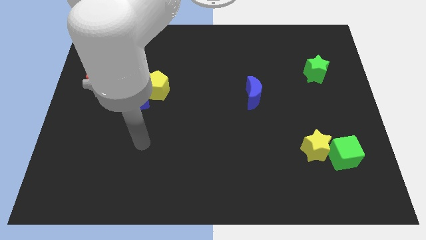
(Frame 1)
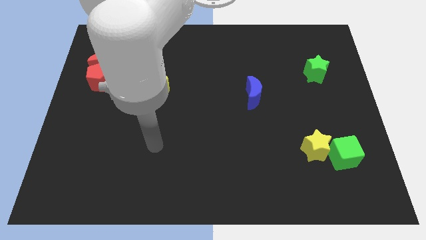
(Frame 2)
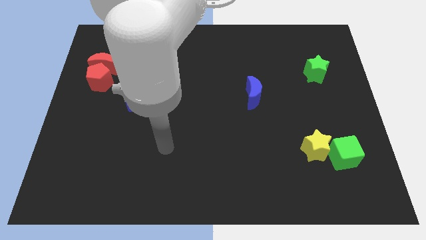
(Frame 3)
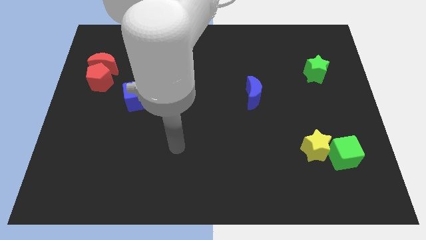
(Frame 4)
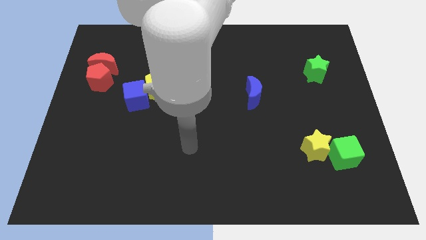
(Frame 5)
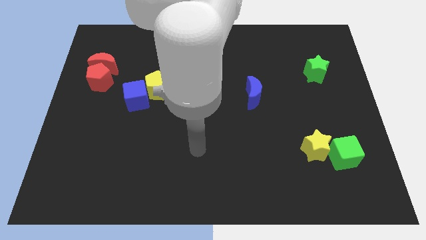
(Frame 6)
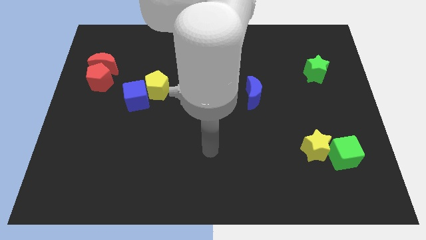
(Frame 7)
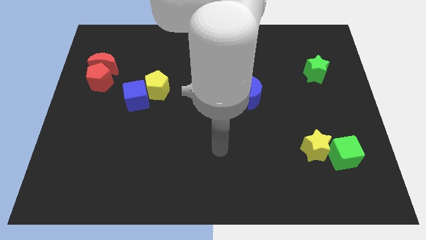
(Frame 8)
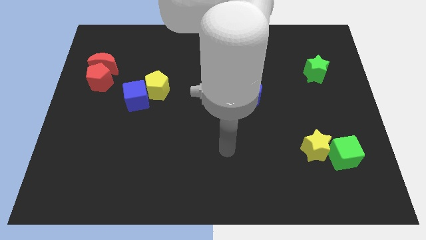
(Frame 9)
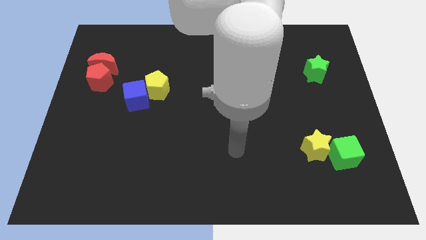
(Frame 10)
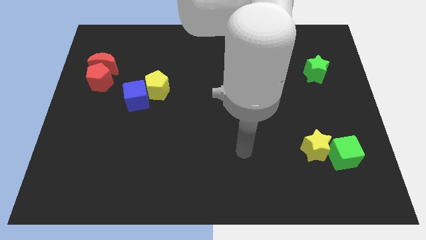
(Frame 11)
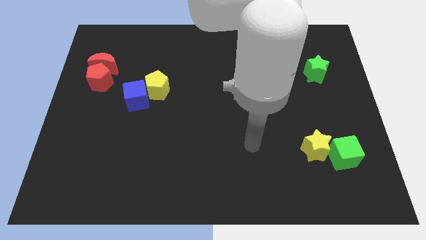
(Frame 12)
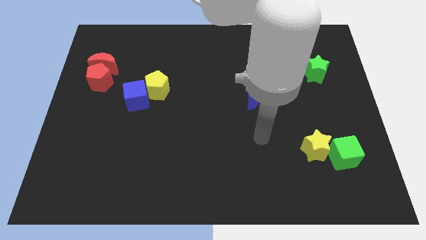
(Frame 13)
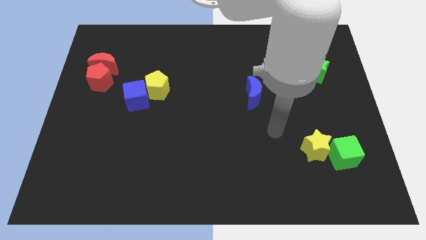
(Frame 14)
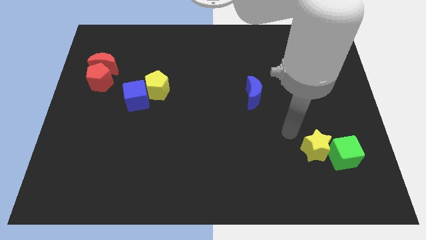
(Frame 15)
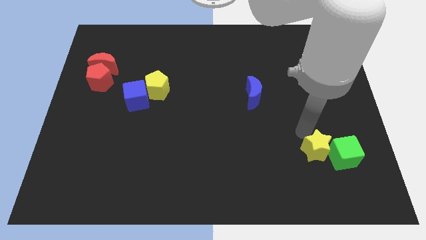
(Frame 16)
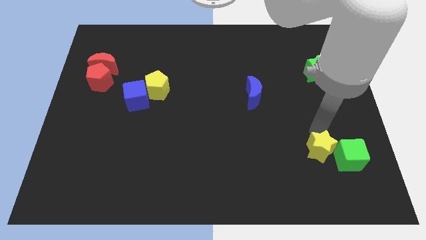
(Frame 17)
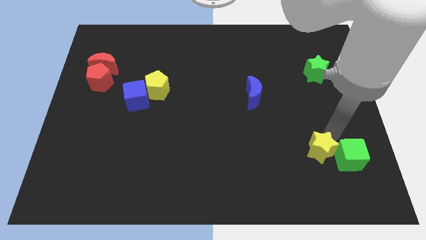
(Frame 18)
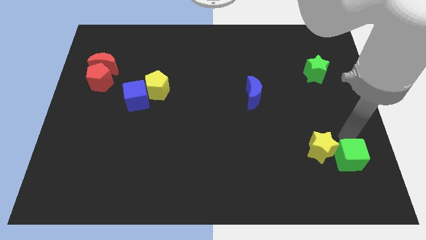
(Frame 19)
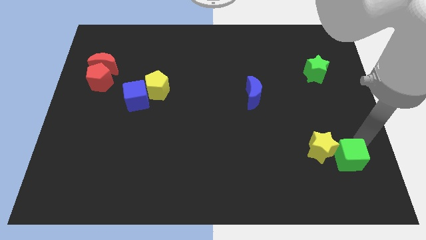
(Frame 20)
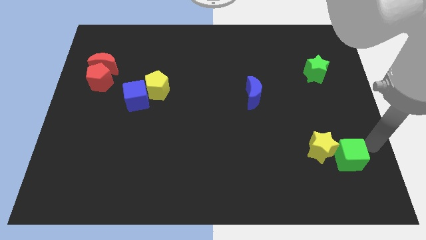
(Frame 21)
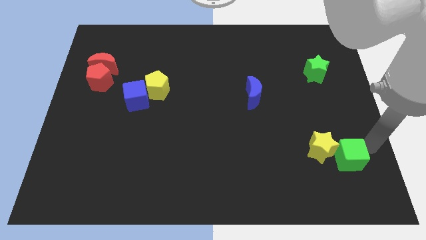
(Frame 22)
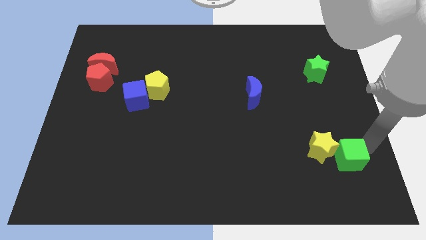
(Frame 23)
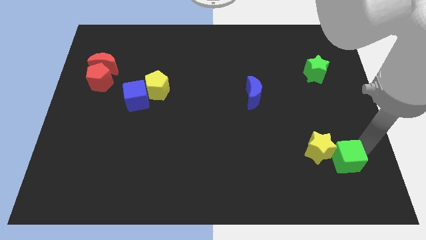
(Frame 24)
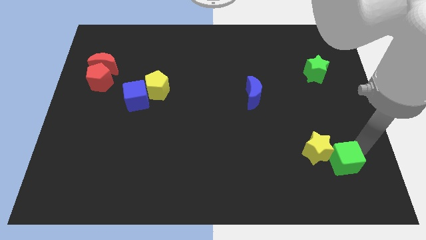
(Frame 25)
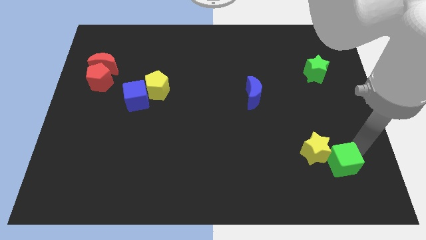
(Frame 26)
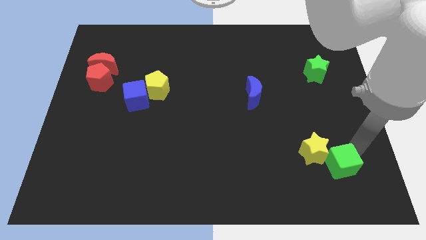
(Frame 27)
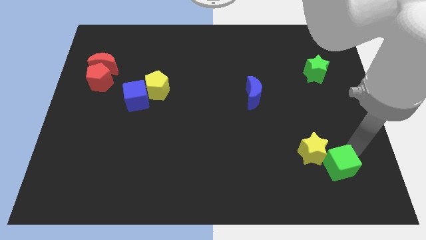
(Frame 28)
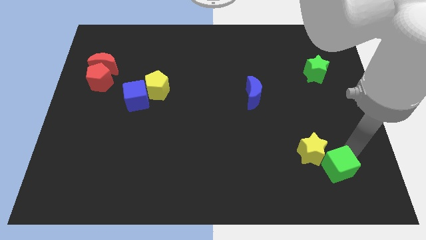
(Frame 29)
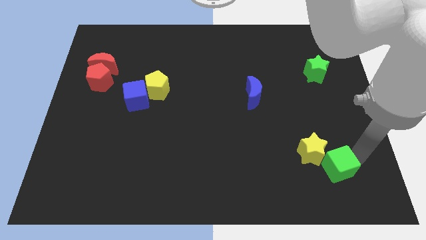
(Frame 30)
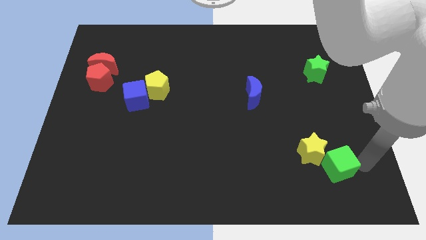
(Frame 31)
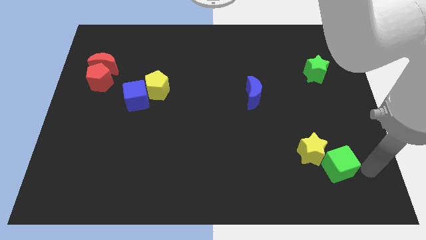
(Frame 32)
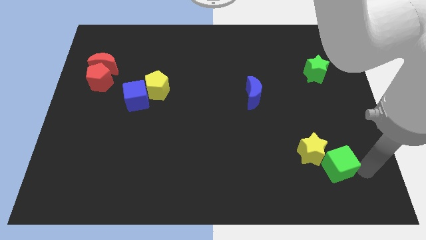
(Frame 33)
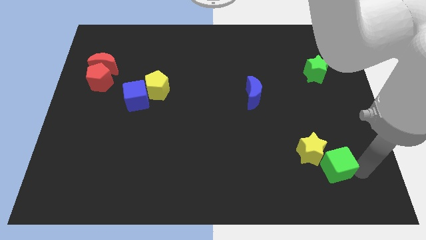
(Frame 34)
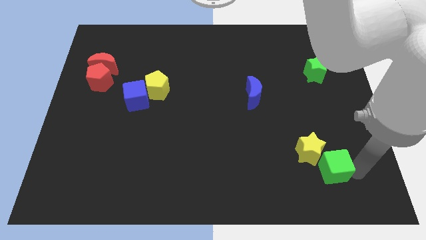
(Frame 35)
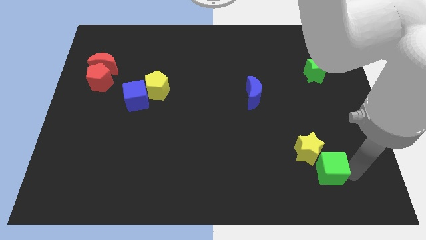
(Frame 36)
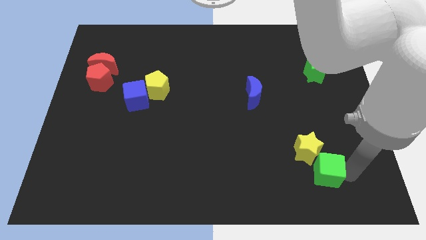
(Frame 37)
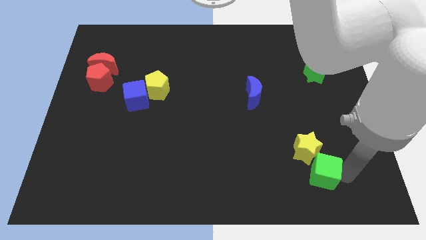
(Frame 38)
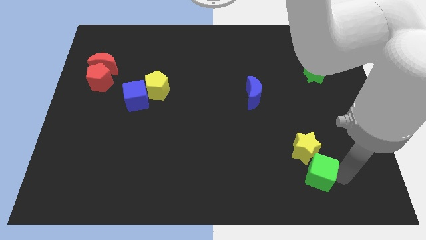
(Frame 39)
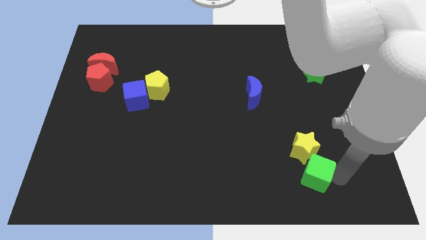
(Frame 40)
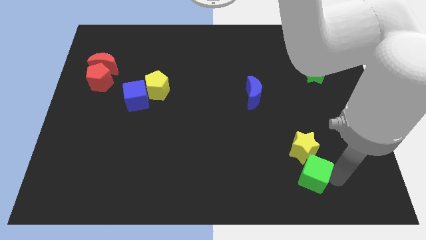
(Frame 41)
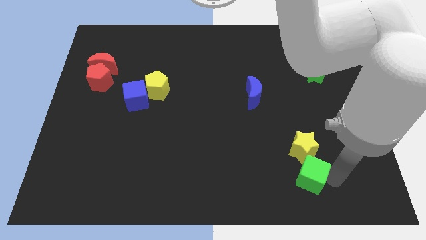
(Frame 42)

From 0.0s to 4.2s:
move the green cube left slightly

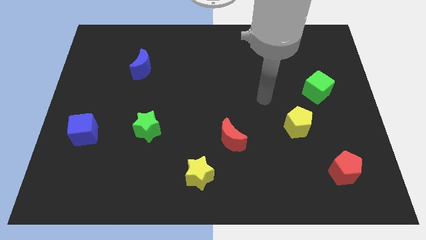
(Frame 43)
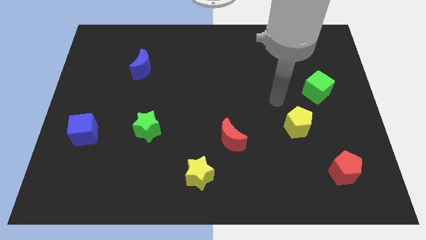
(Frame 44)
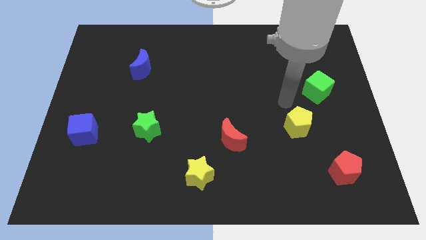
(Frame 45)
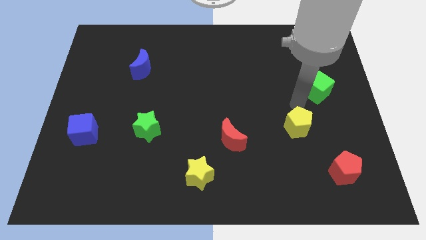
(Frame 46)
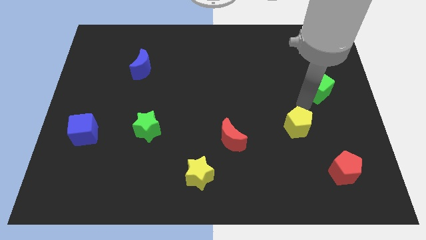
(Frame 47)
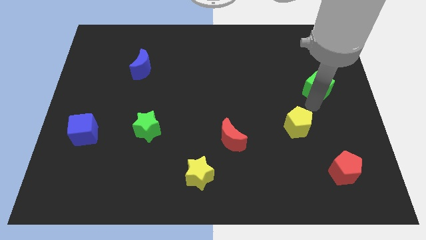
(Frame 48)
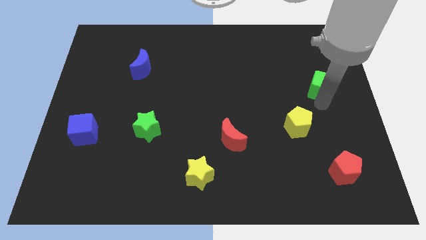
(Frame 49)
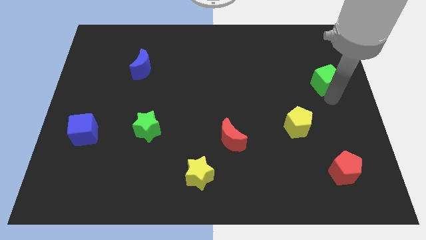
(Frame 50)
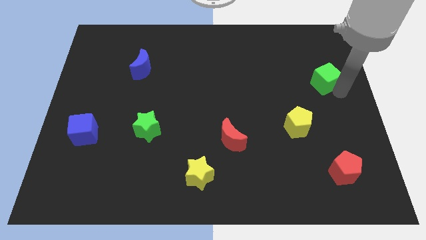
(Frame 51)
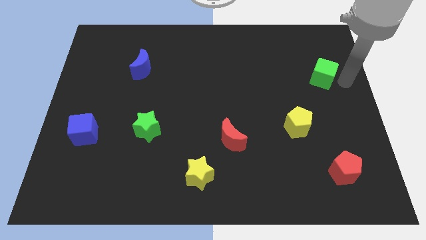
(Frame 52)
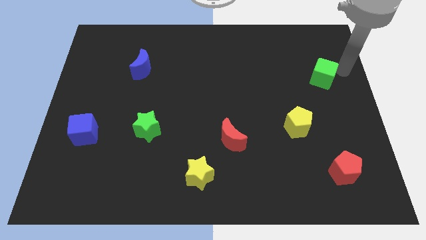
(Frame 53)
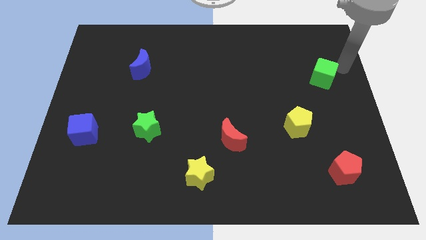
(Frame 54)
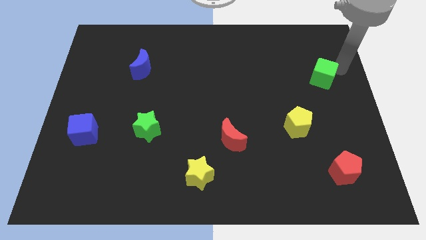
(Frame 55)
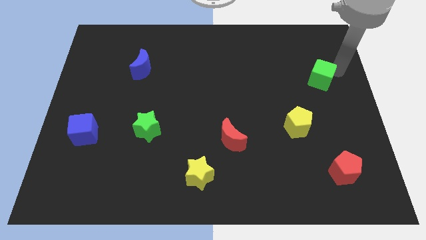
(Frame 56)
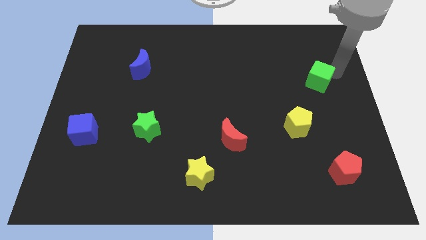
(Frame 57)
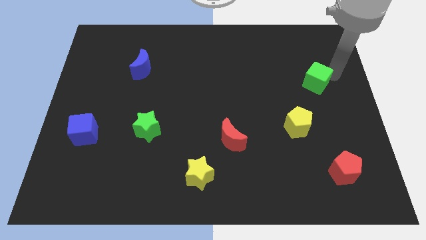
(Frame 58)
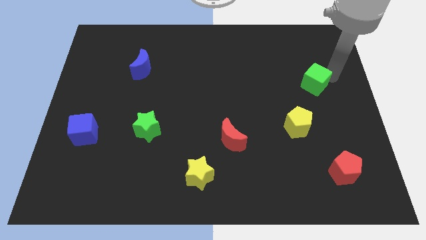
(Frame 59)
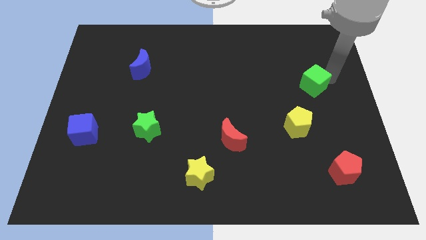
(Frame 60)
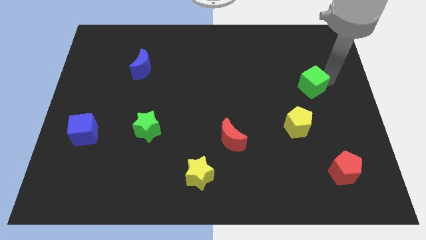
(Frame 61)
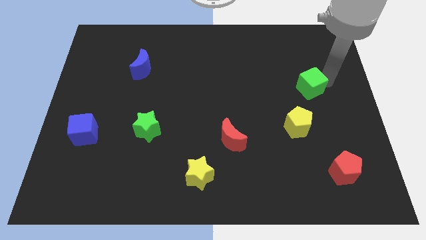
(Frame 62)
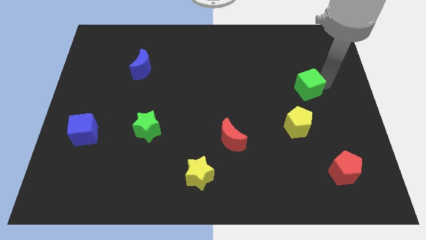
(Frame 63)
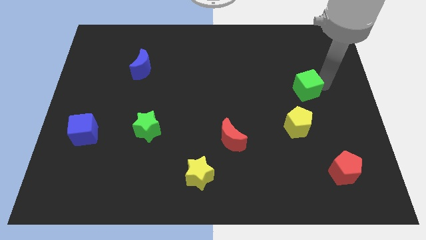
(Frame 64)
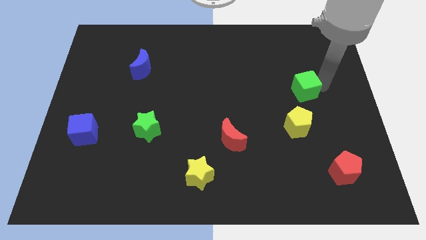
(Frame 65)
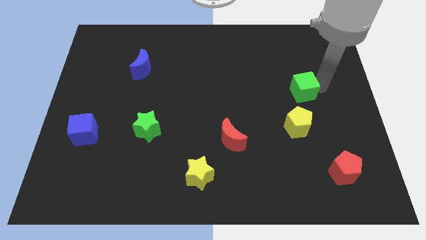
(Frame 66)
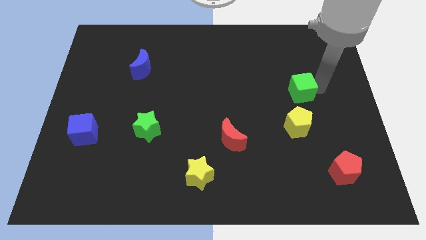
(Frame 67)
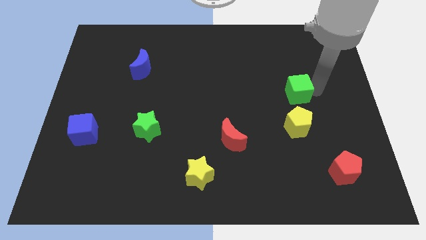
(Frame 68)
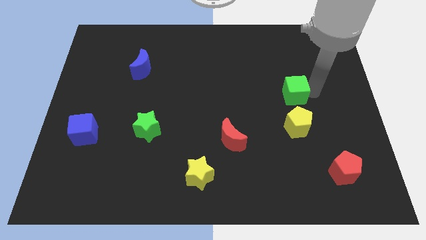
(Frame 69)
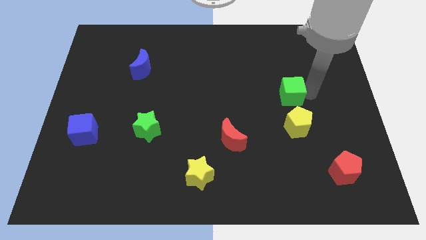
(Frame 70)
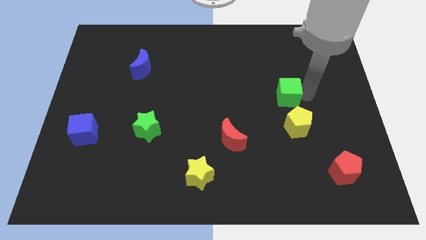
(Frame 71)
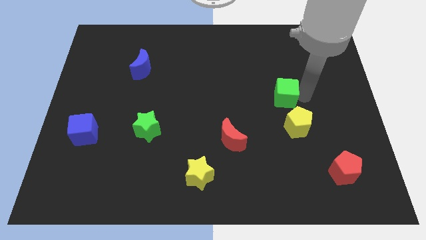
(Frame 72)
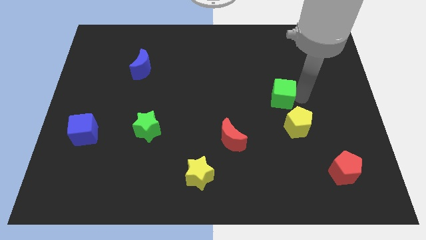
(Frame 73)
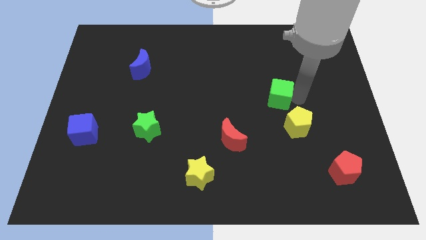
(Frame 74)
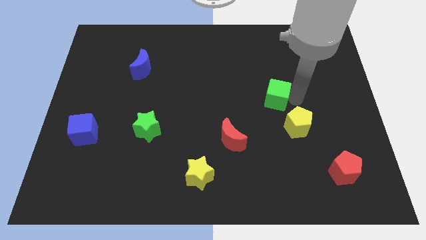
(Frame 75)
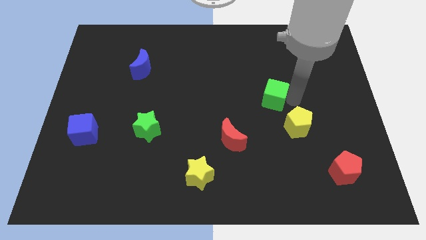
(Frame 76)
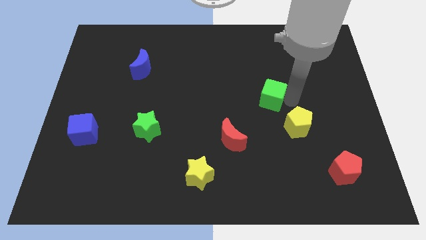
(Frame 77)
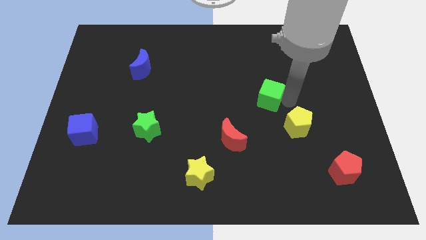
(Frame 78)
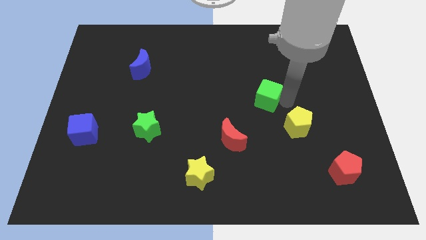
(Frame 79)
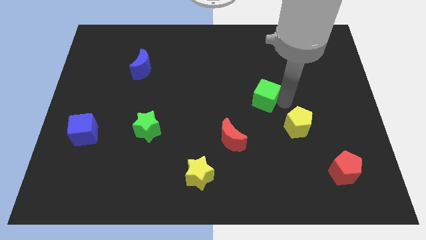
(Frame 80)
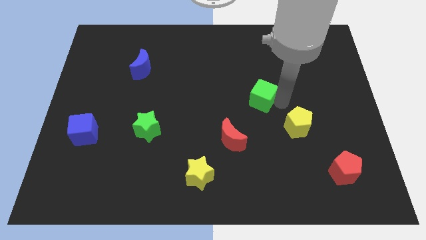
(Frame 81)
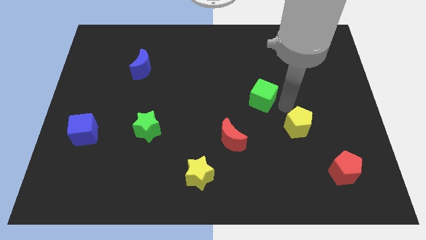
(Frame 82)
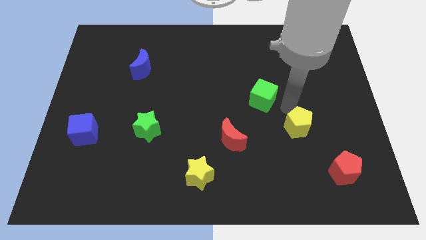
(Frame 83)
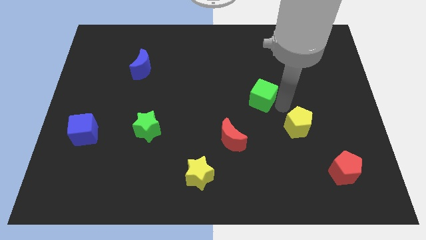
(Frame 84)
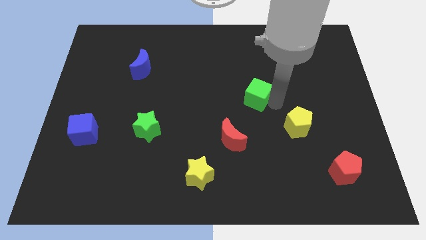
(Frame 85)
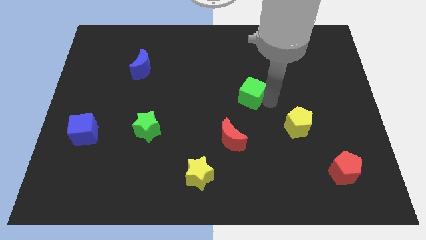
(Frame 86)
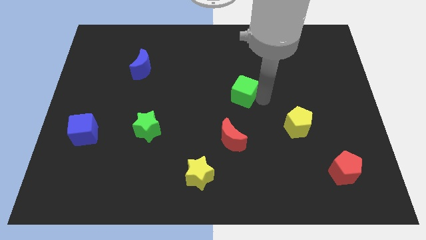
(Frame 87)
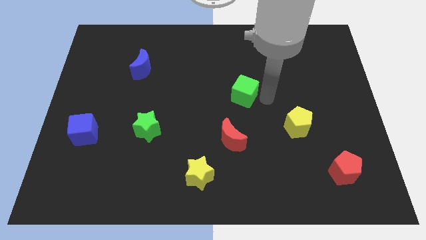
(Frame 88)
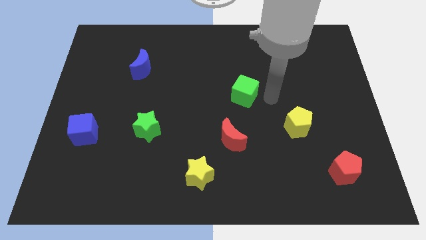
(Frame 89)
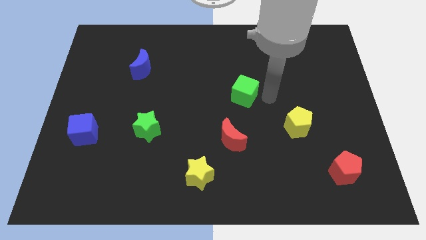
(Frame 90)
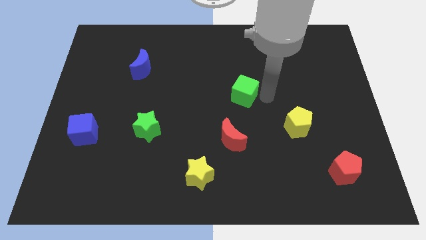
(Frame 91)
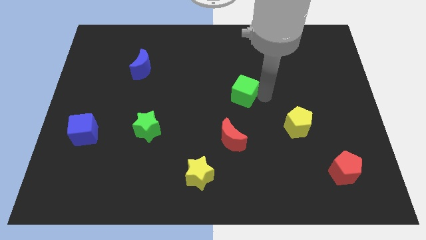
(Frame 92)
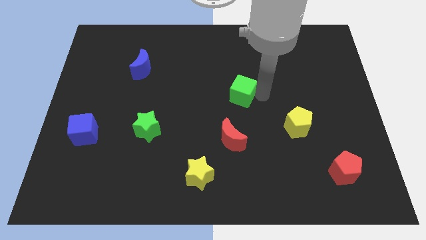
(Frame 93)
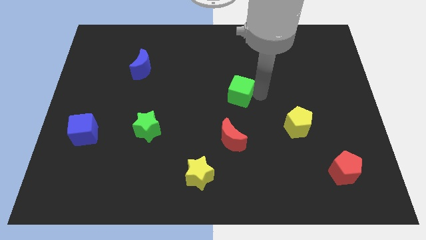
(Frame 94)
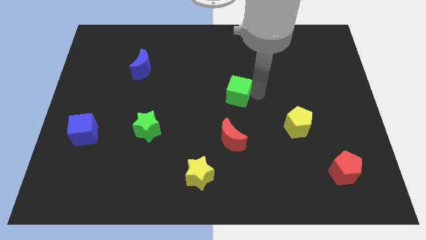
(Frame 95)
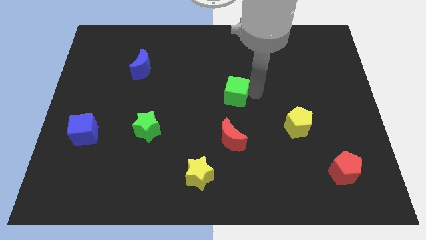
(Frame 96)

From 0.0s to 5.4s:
slide the green cube to the left
